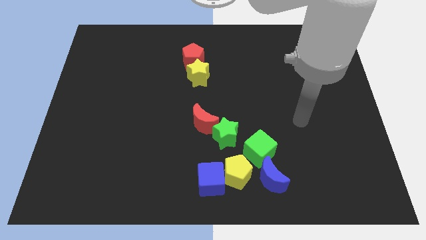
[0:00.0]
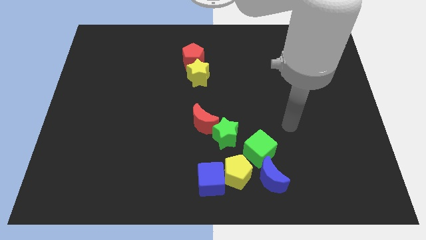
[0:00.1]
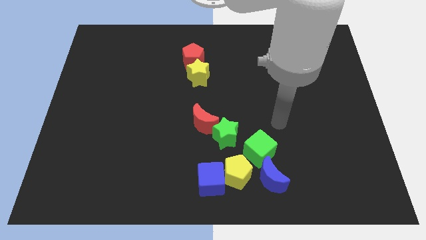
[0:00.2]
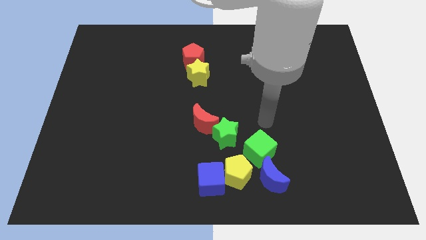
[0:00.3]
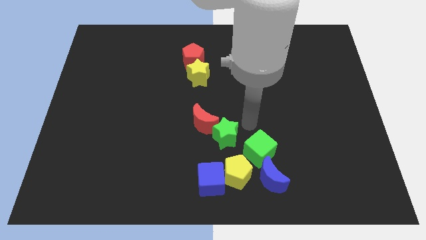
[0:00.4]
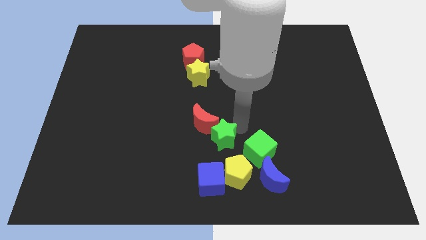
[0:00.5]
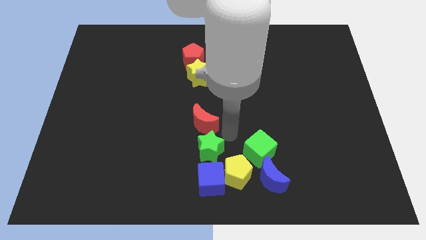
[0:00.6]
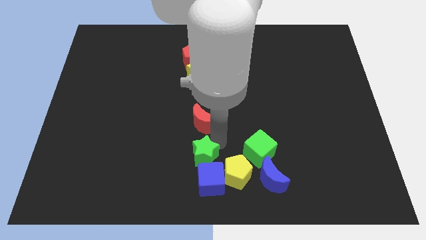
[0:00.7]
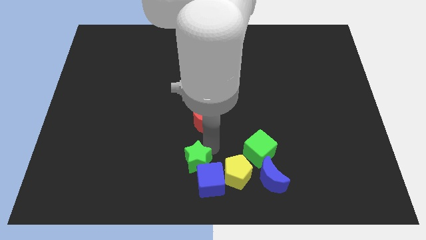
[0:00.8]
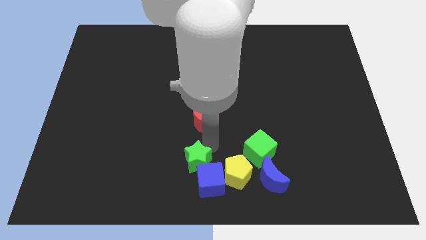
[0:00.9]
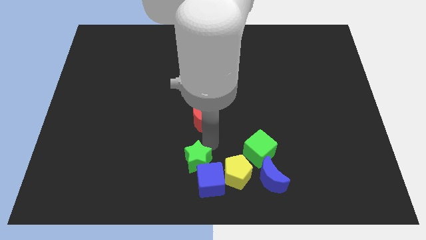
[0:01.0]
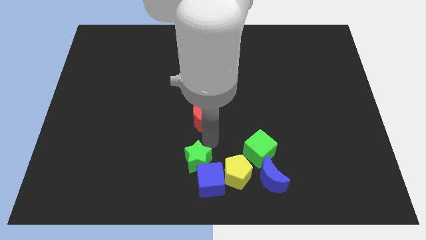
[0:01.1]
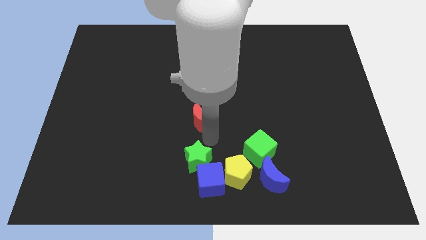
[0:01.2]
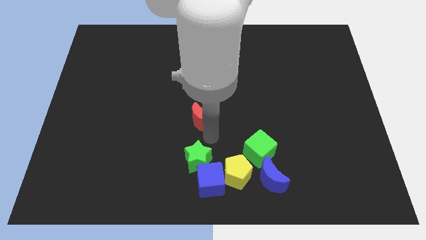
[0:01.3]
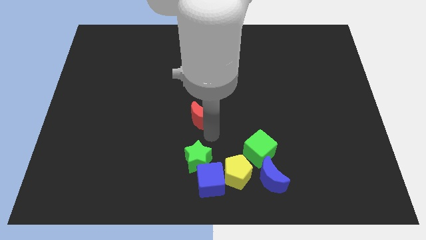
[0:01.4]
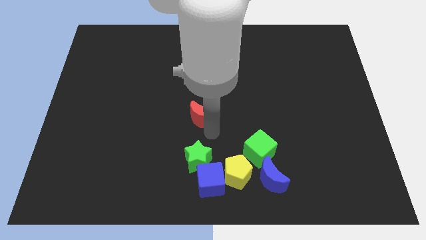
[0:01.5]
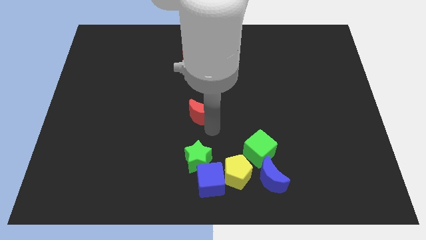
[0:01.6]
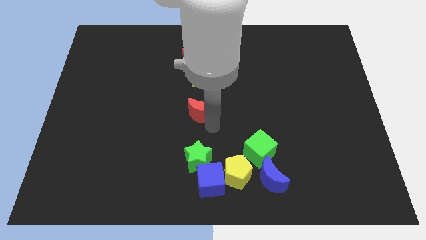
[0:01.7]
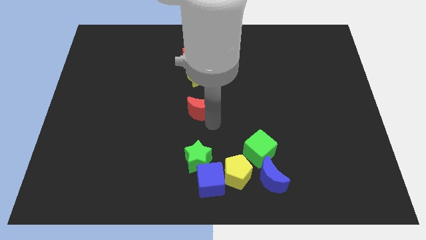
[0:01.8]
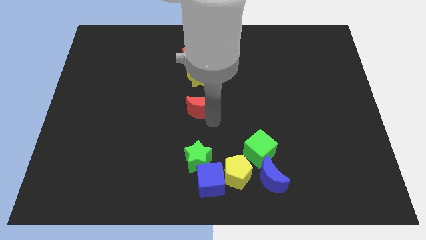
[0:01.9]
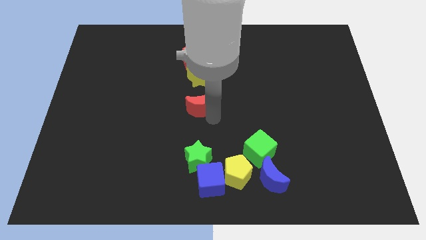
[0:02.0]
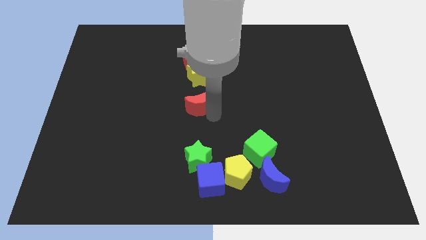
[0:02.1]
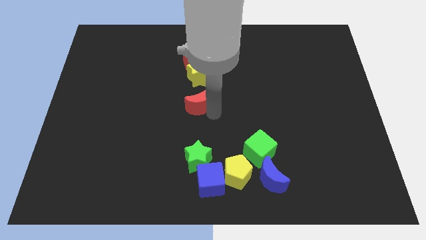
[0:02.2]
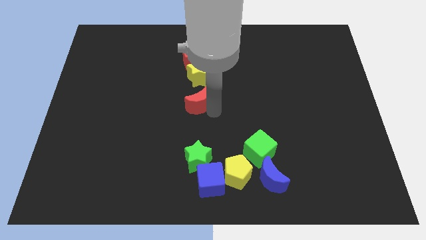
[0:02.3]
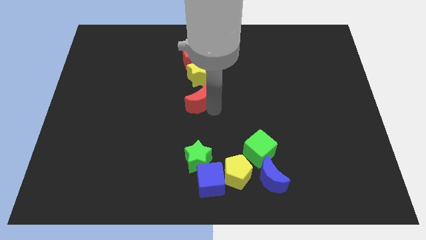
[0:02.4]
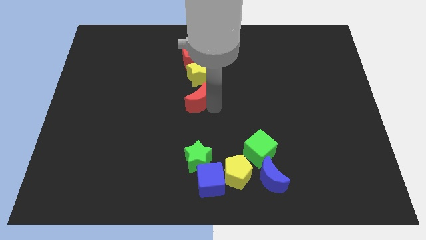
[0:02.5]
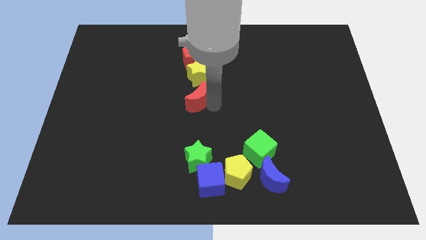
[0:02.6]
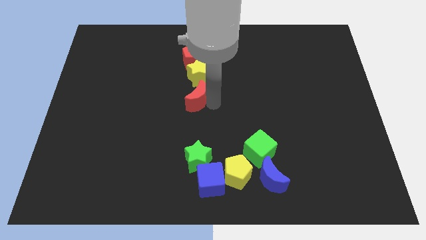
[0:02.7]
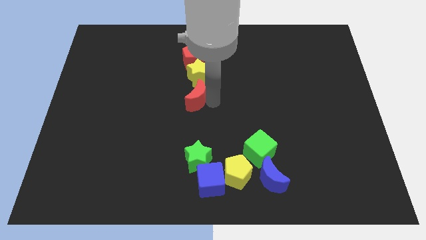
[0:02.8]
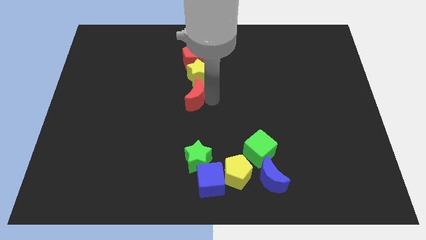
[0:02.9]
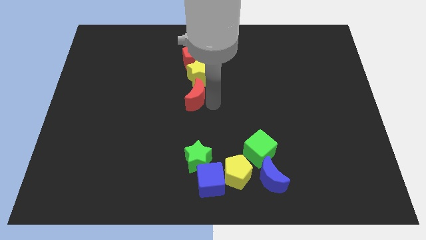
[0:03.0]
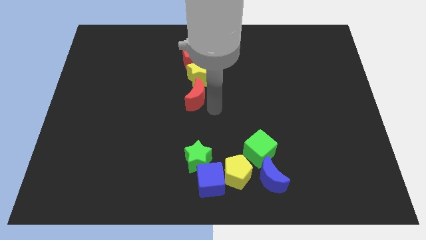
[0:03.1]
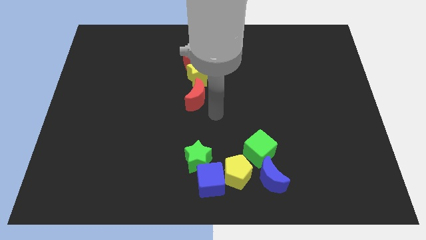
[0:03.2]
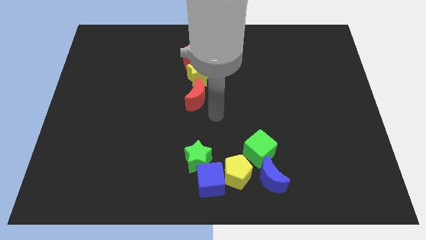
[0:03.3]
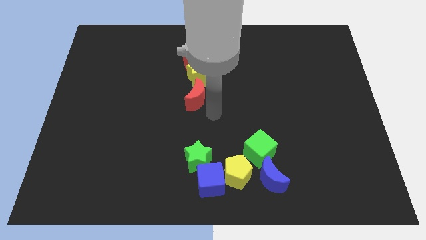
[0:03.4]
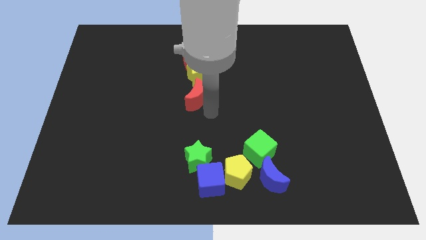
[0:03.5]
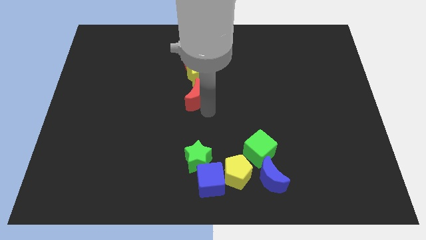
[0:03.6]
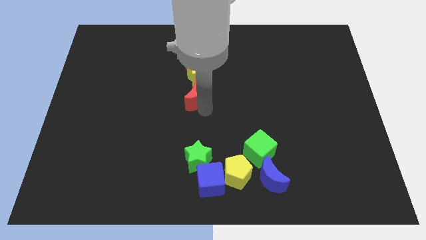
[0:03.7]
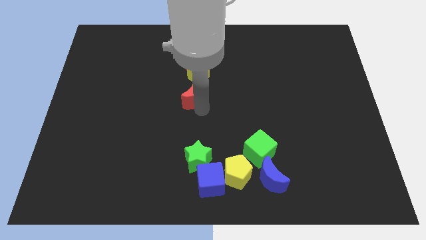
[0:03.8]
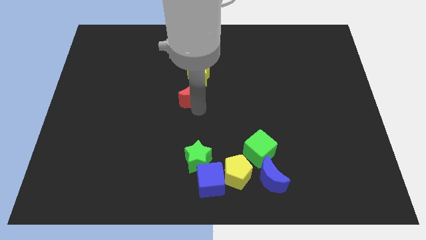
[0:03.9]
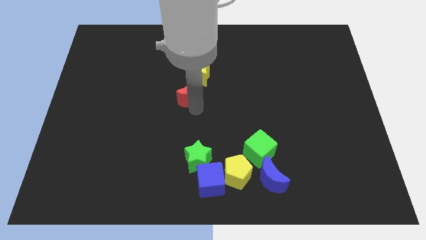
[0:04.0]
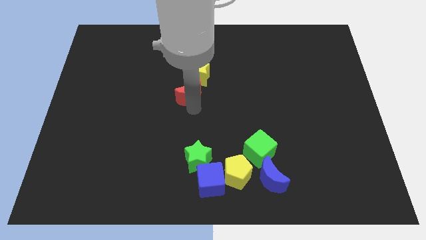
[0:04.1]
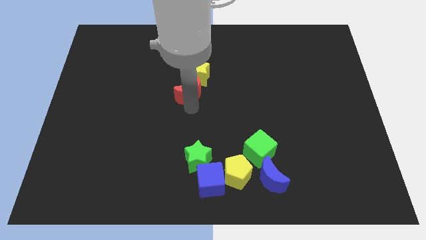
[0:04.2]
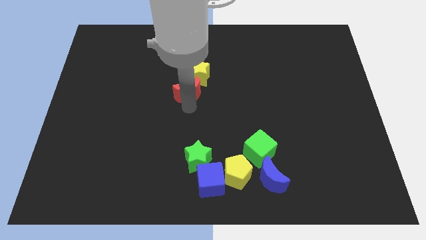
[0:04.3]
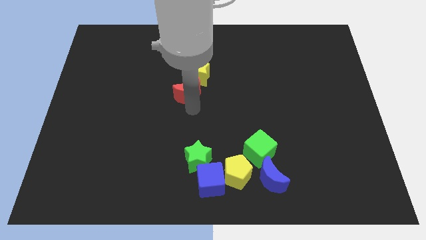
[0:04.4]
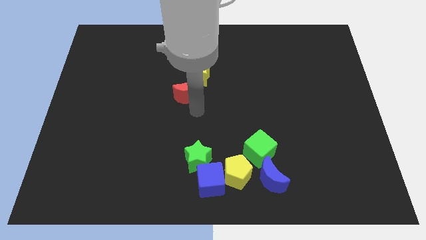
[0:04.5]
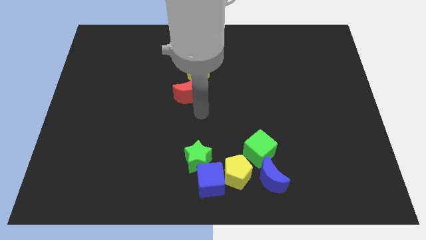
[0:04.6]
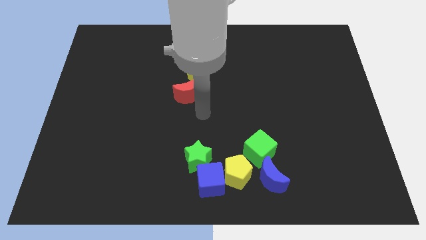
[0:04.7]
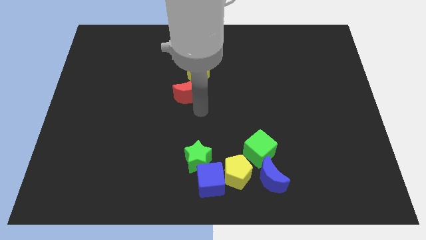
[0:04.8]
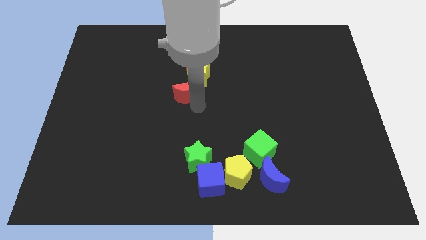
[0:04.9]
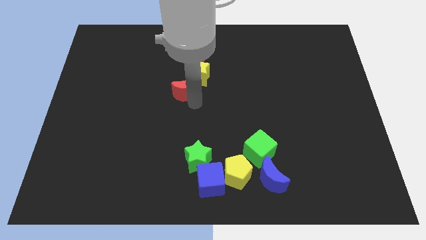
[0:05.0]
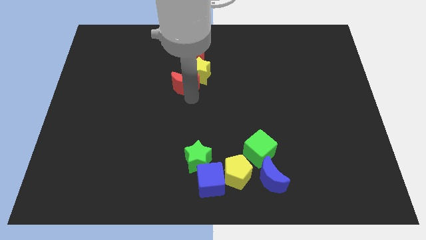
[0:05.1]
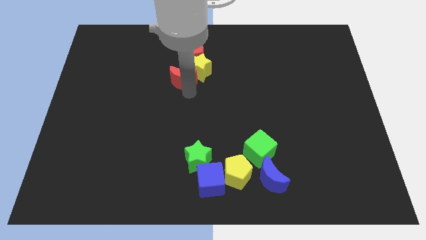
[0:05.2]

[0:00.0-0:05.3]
move the red moon diagonally down and to the left of the red pentagon

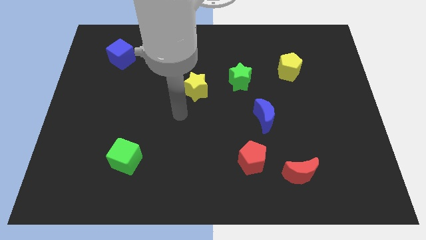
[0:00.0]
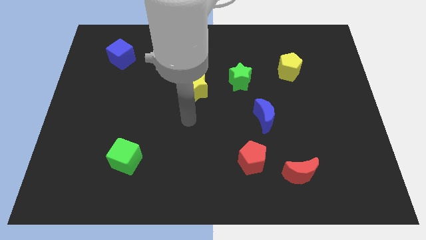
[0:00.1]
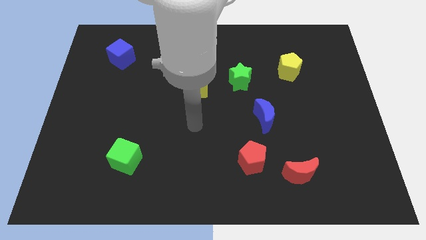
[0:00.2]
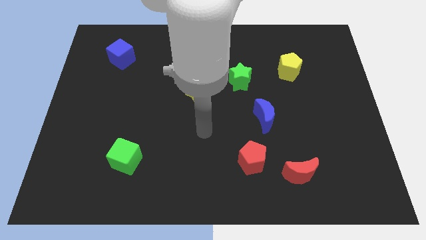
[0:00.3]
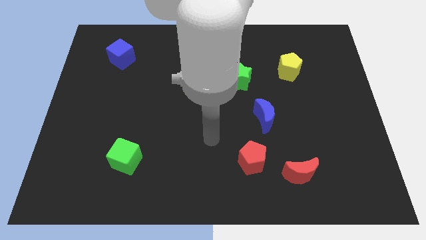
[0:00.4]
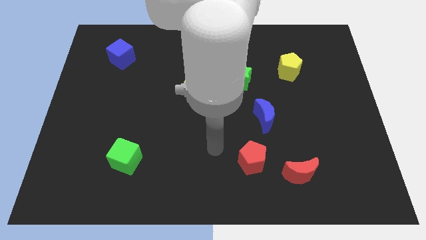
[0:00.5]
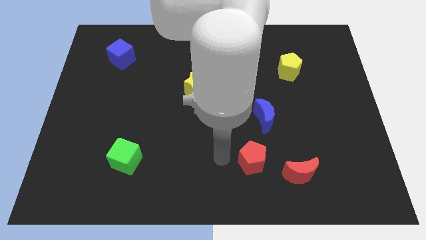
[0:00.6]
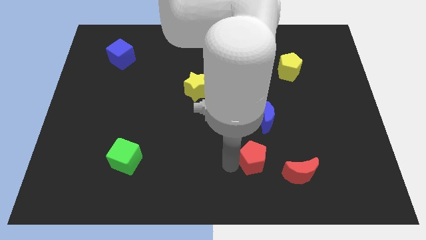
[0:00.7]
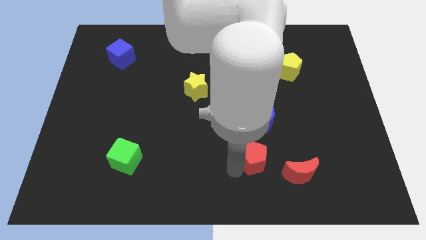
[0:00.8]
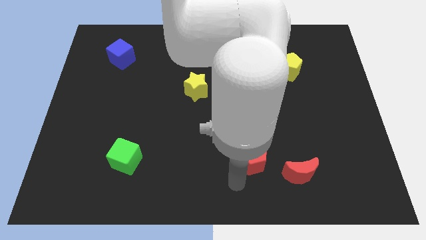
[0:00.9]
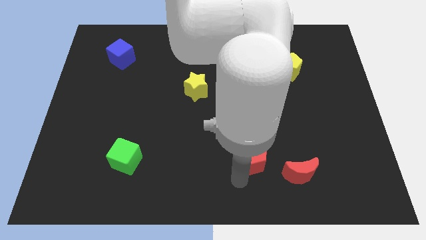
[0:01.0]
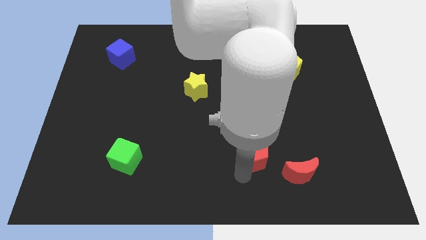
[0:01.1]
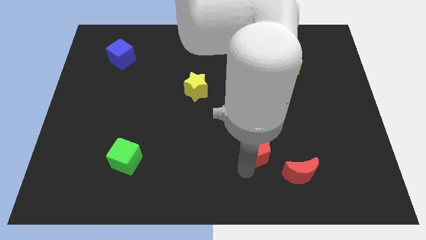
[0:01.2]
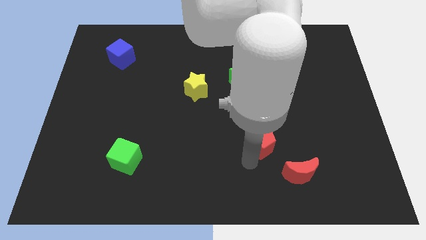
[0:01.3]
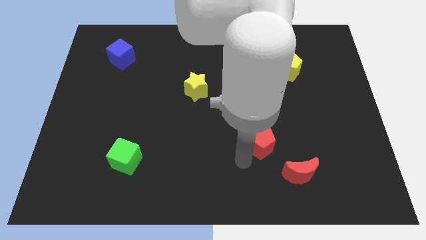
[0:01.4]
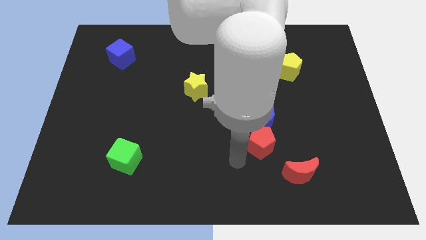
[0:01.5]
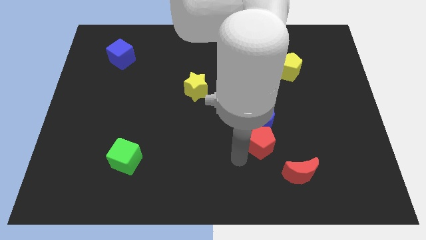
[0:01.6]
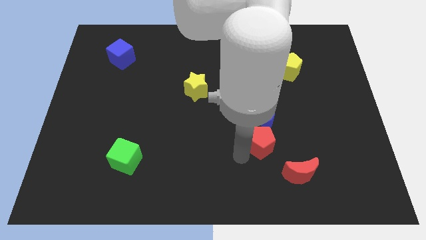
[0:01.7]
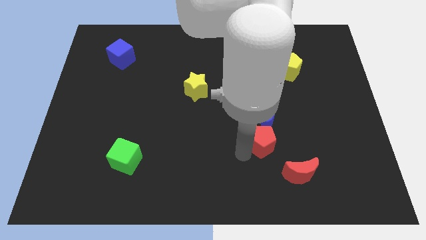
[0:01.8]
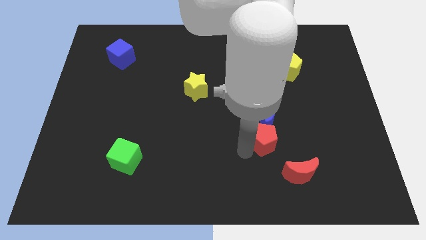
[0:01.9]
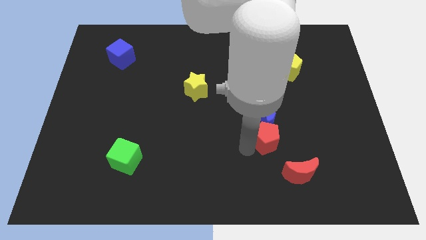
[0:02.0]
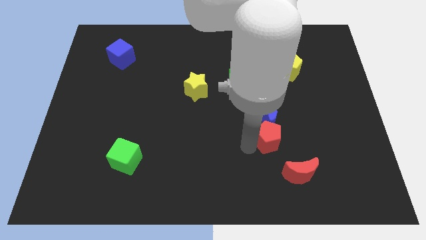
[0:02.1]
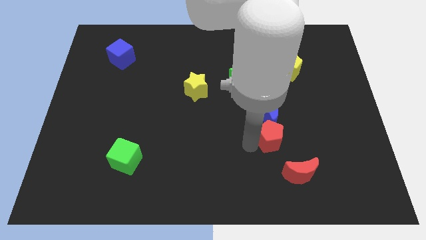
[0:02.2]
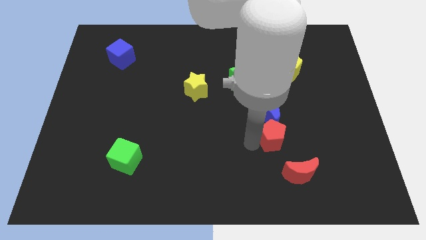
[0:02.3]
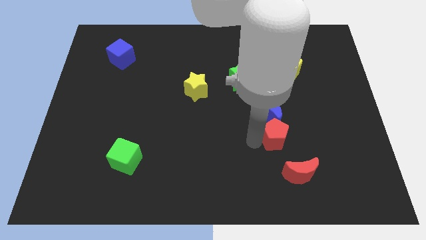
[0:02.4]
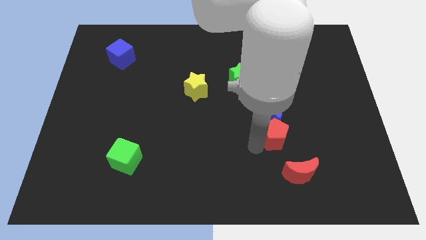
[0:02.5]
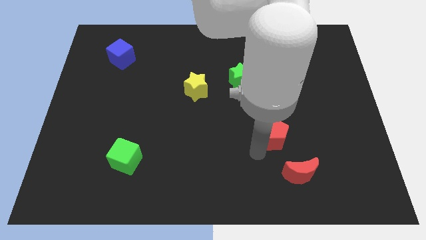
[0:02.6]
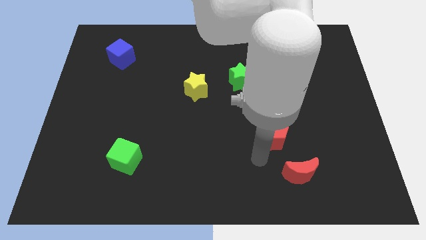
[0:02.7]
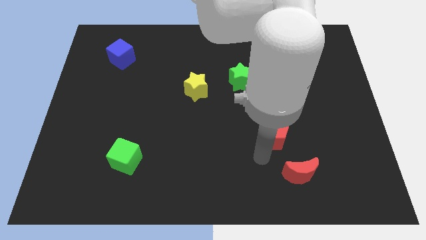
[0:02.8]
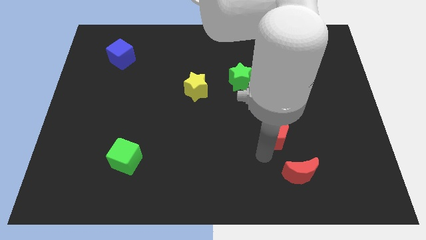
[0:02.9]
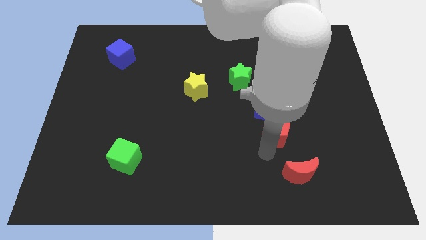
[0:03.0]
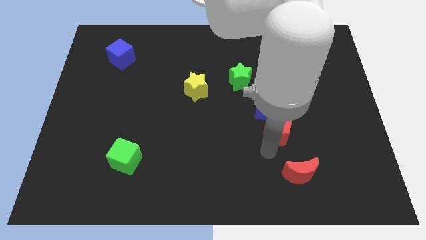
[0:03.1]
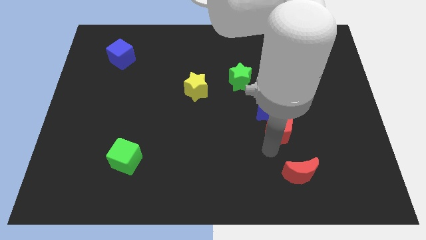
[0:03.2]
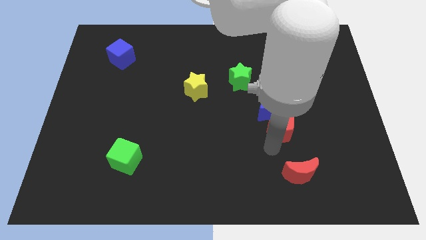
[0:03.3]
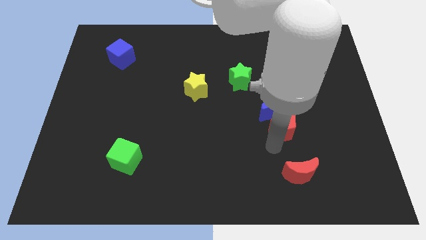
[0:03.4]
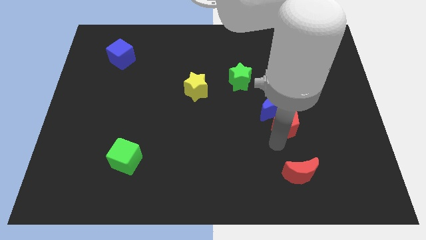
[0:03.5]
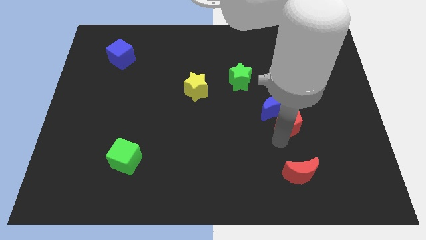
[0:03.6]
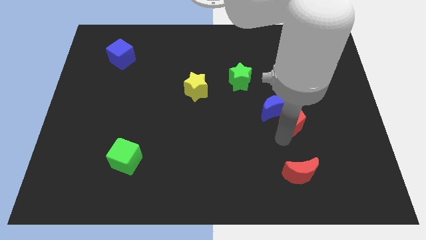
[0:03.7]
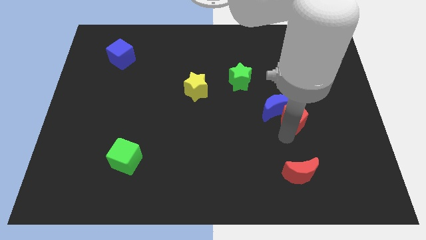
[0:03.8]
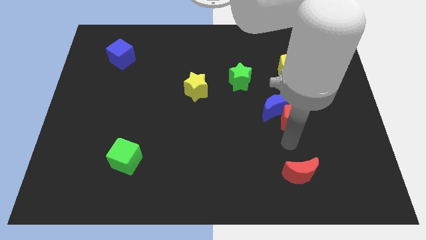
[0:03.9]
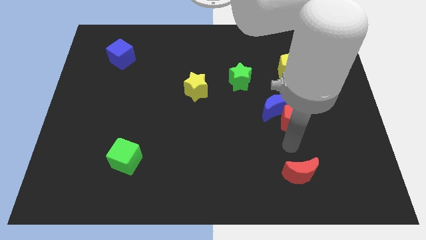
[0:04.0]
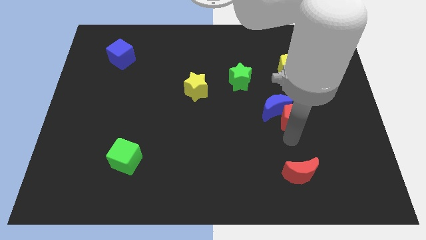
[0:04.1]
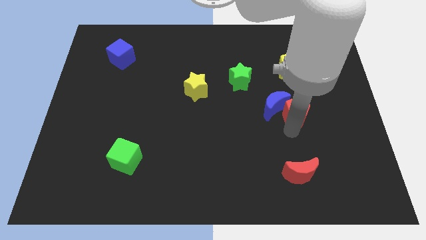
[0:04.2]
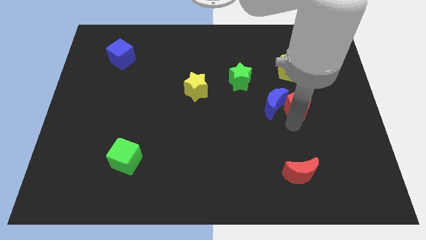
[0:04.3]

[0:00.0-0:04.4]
slide the red pentagon to the top right of the blue moon
